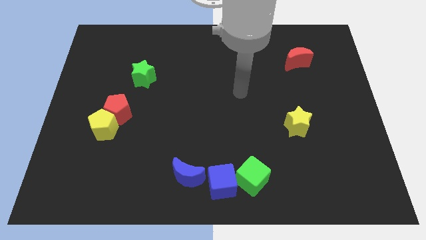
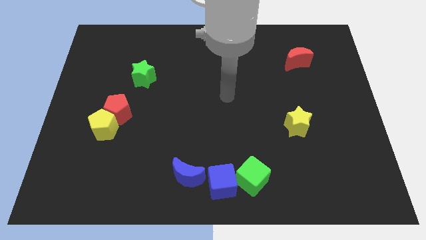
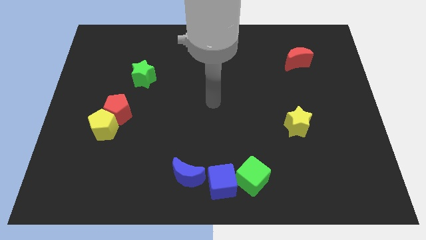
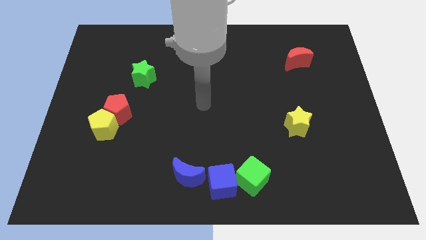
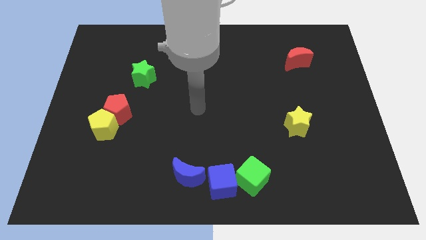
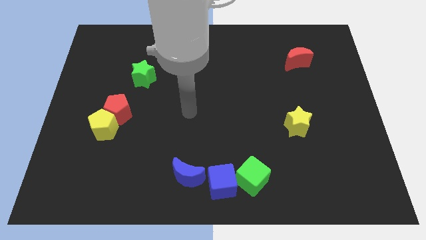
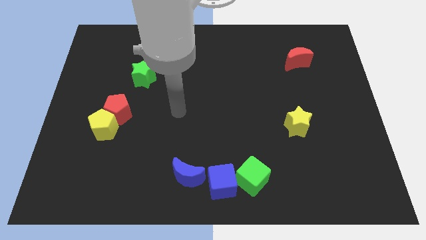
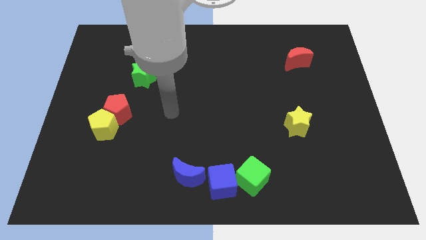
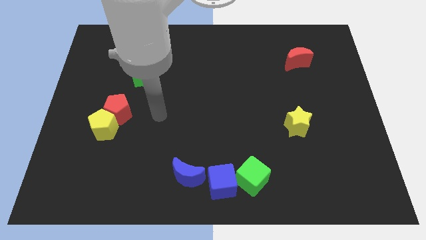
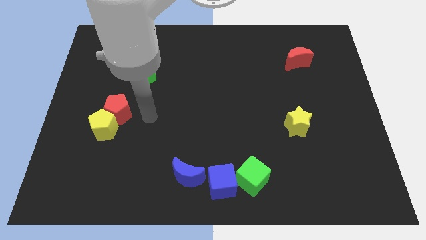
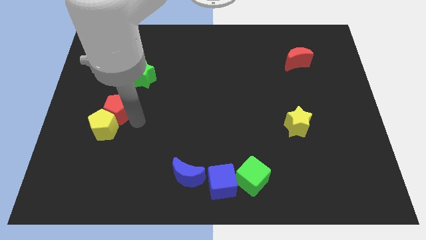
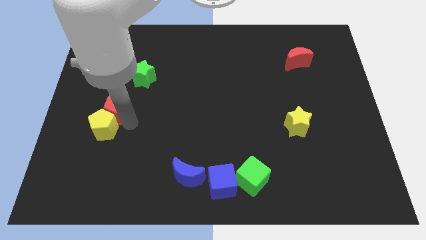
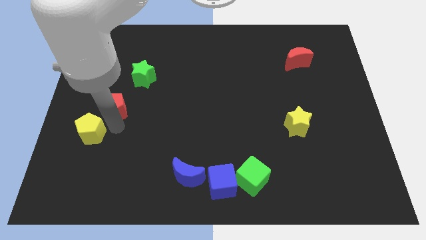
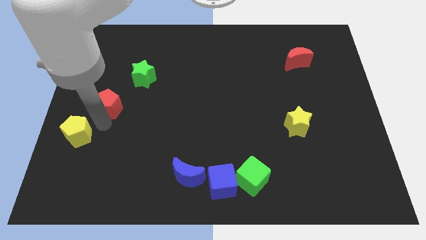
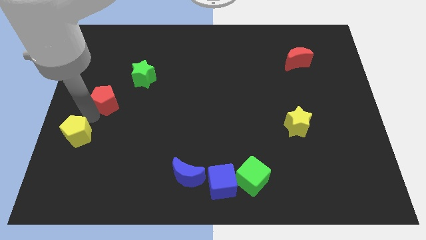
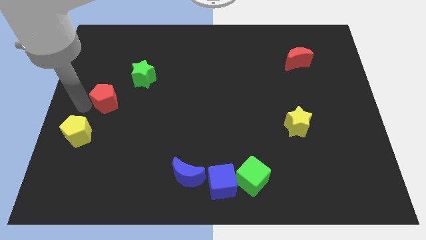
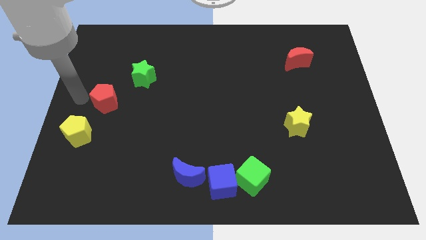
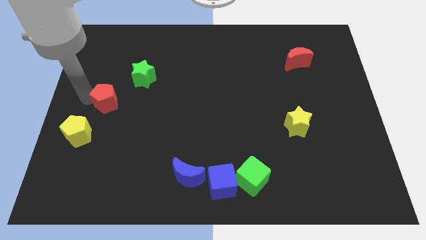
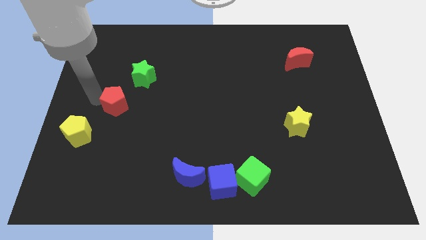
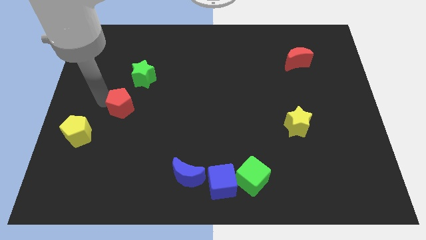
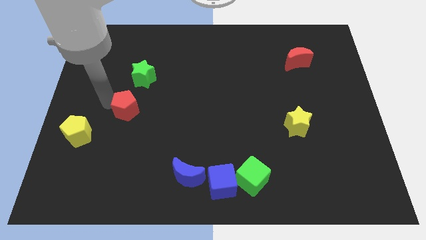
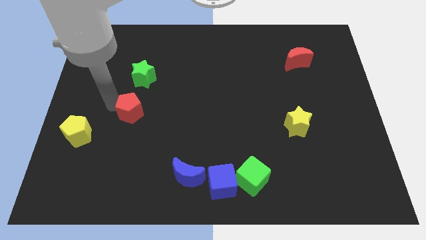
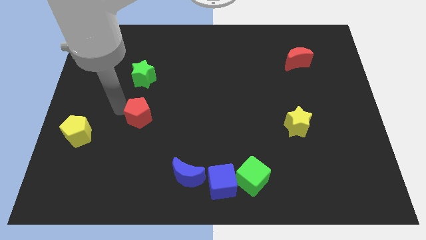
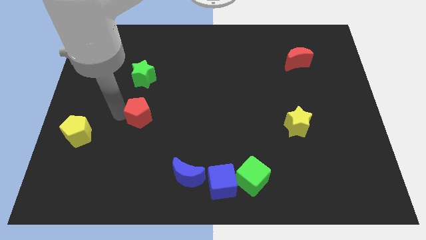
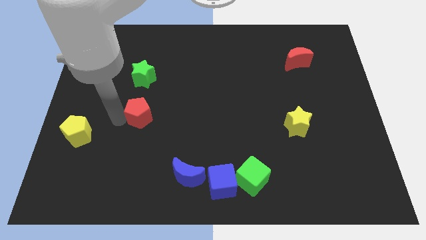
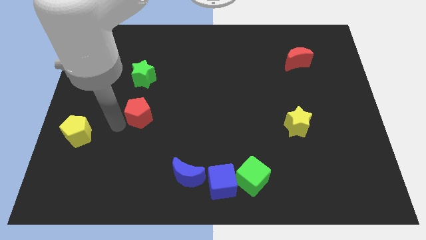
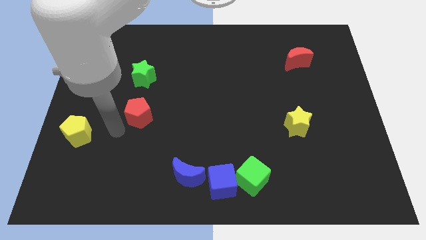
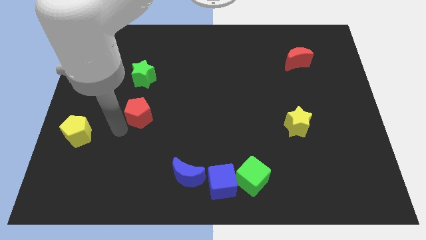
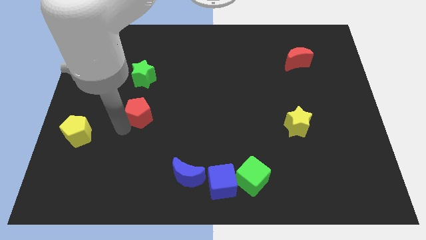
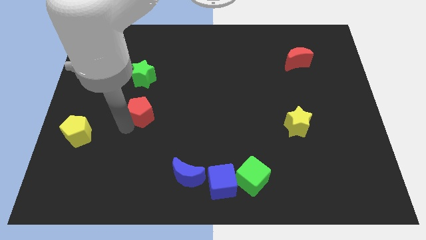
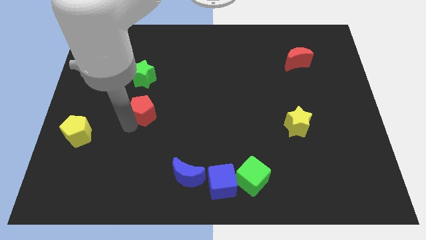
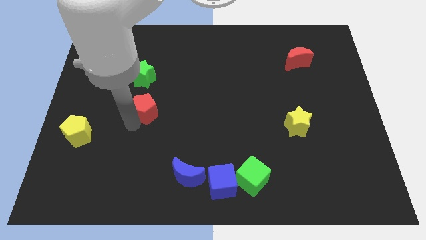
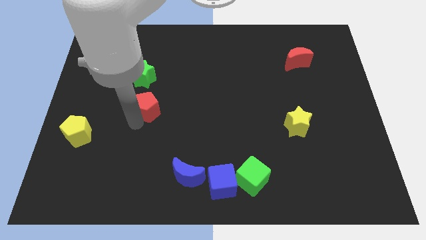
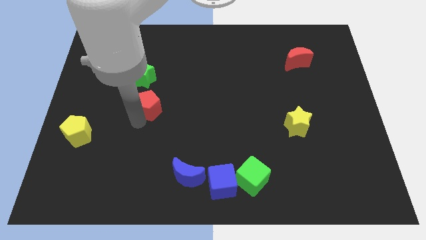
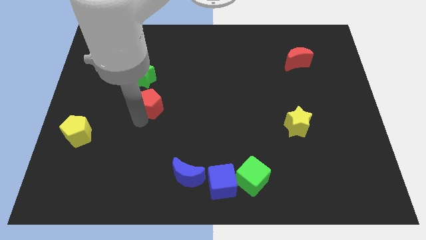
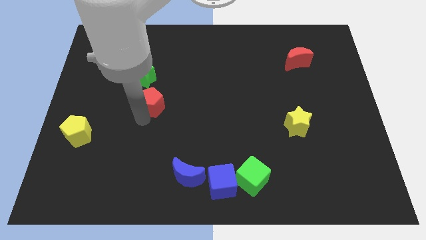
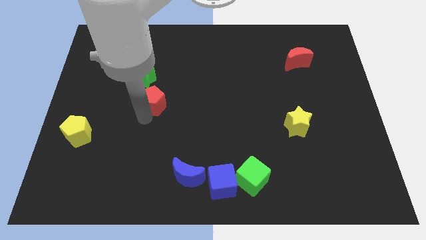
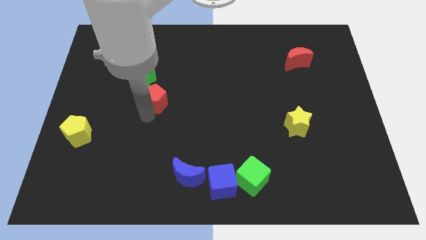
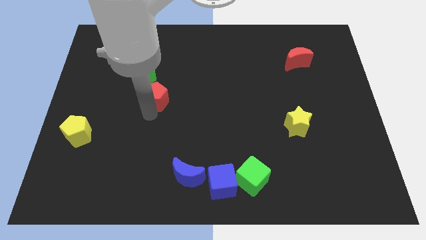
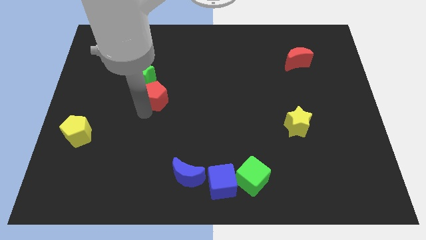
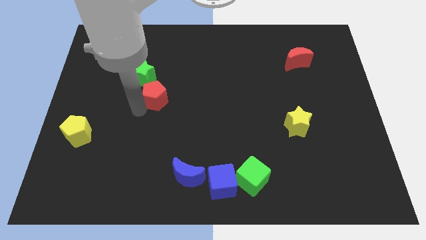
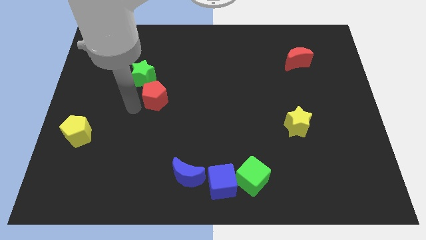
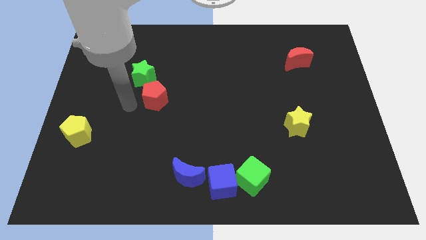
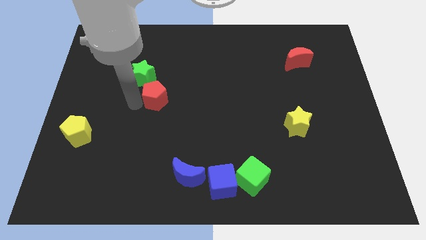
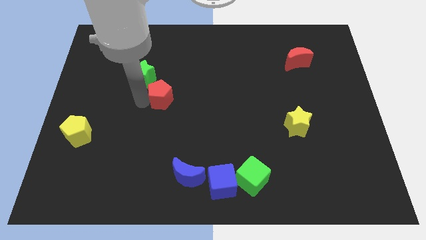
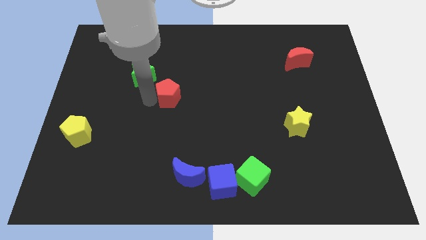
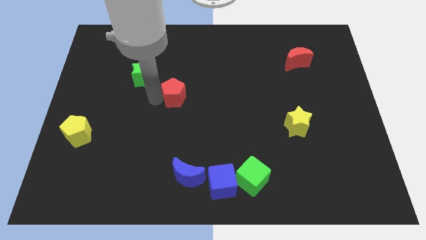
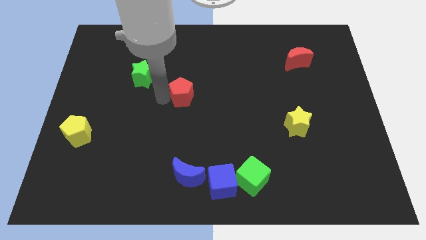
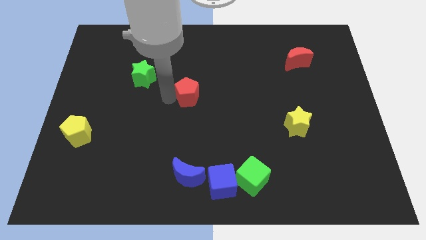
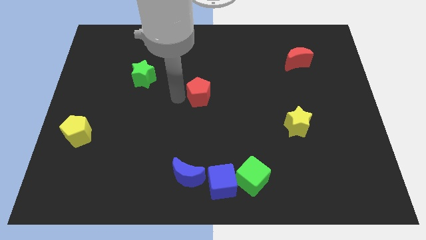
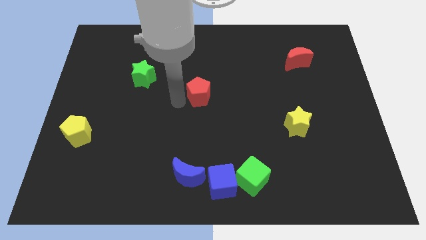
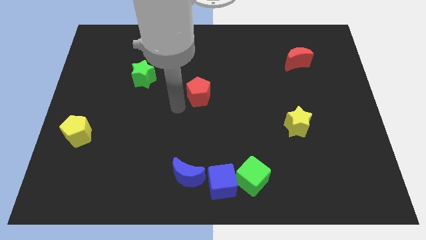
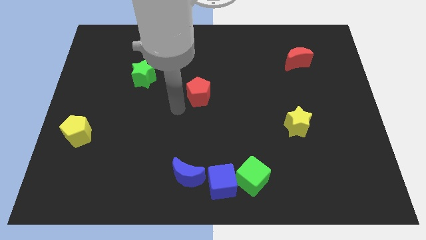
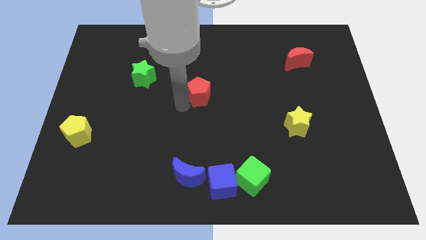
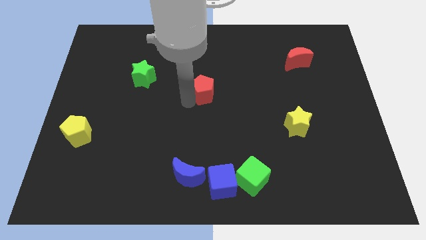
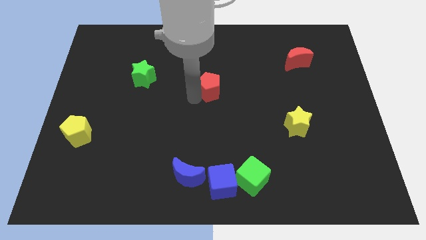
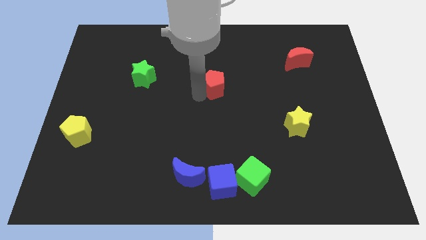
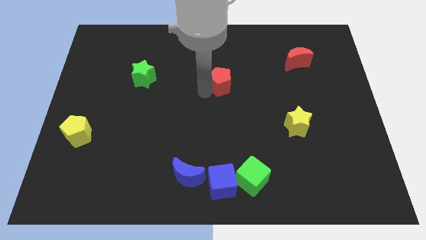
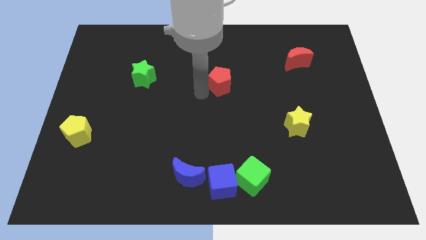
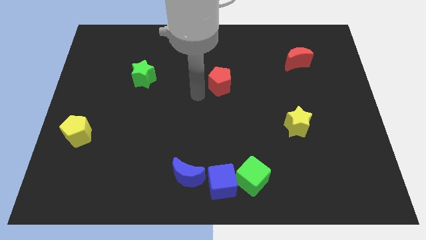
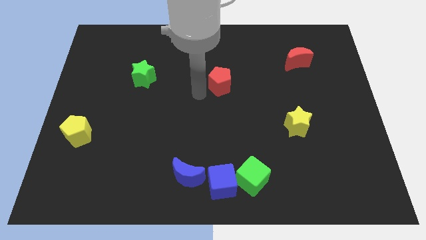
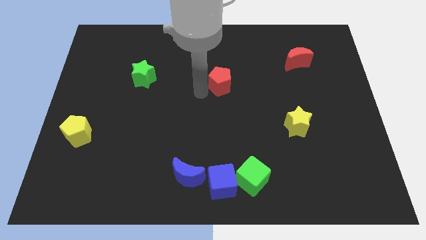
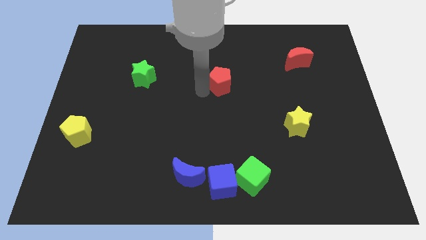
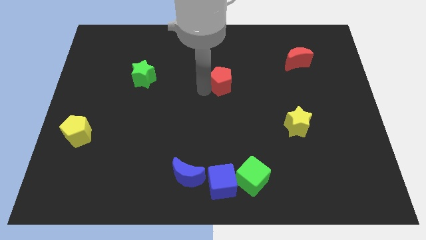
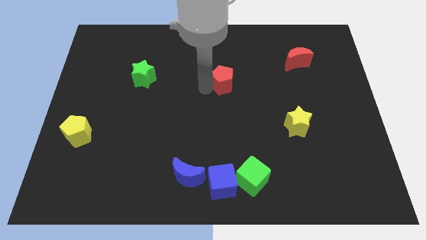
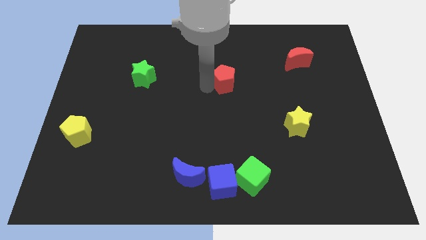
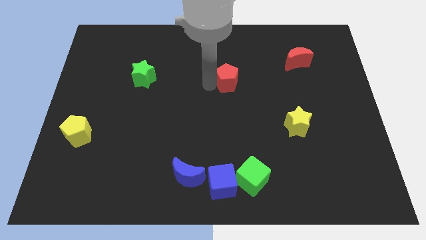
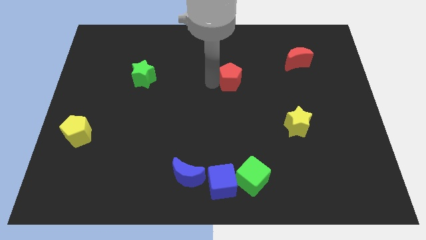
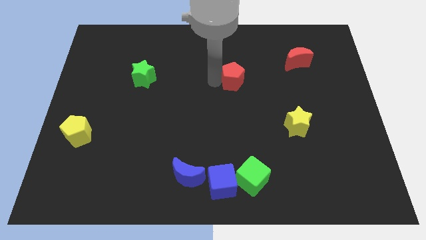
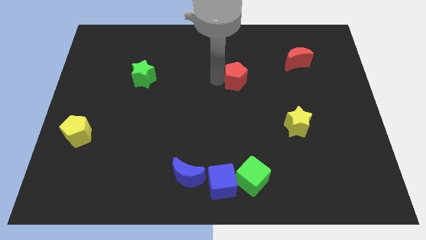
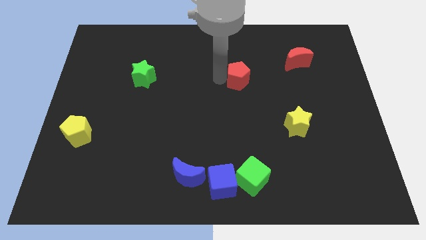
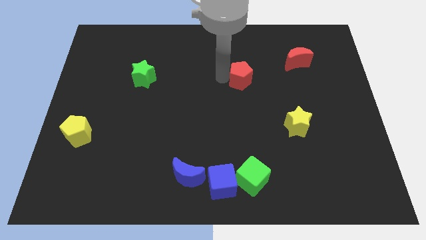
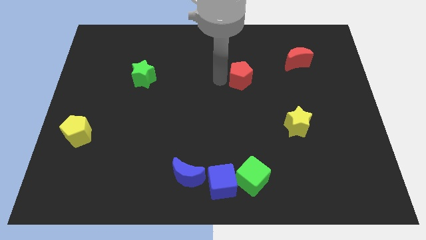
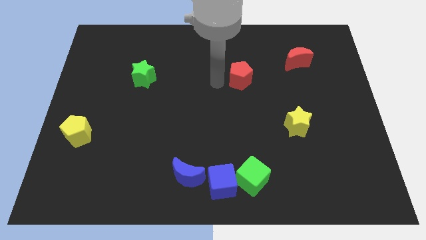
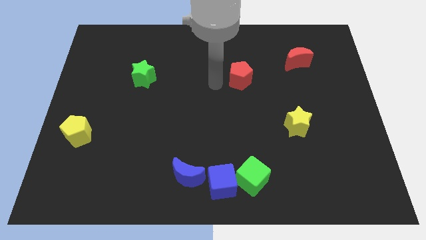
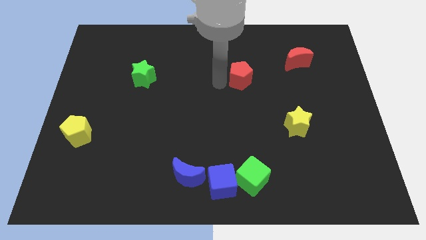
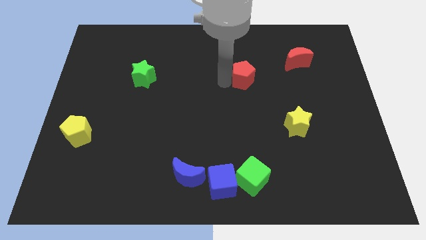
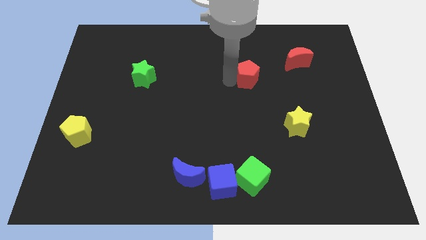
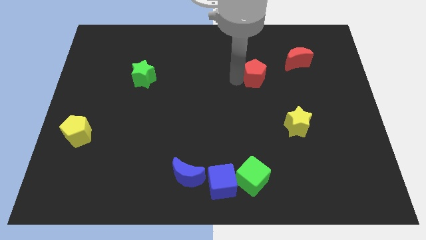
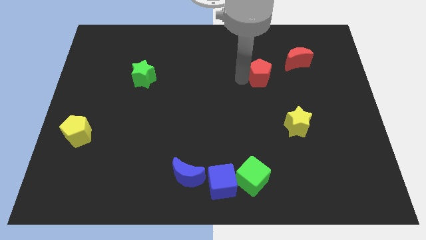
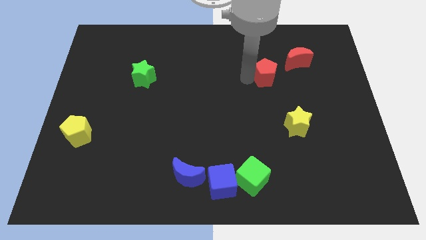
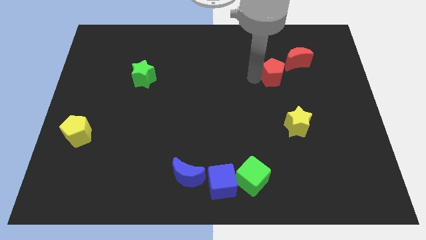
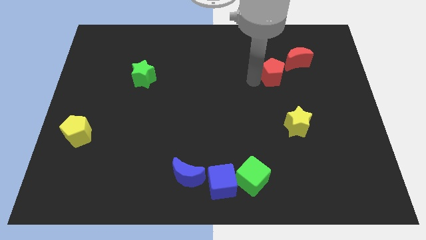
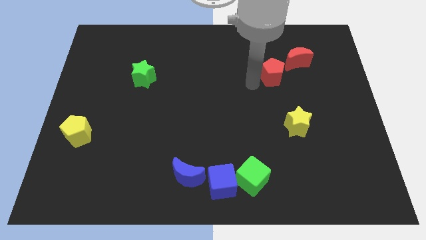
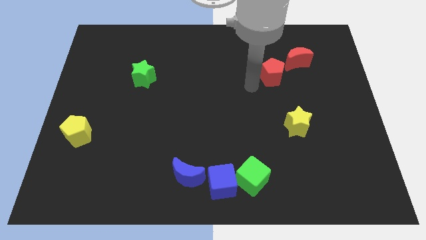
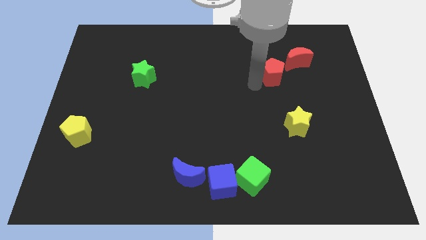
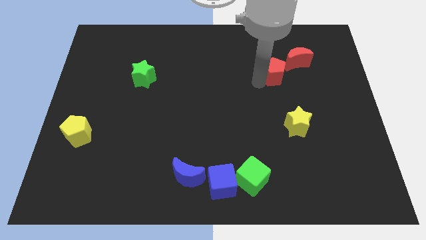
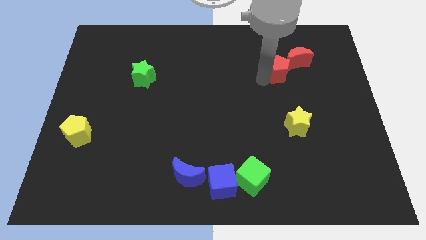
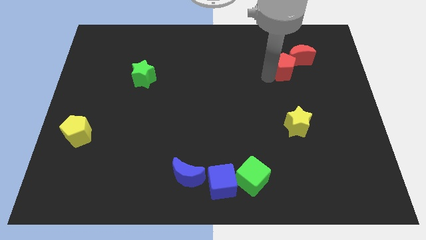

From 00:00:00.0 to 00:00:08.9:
push the red pentagon close to the red moon
